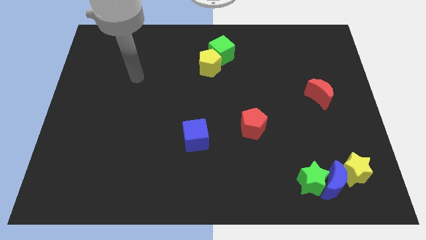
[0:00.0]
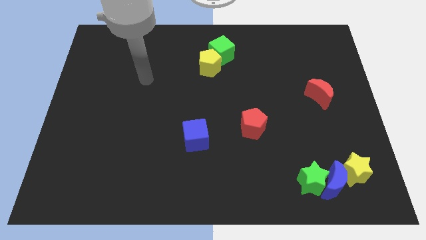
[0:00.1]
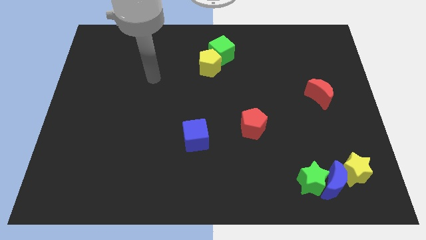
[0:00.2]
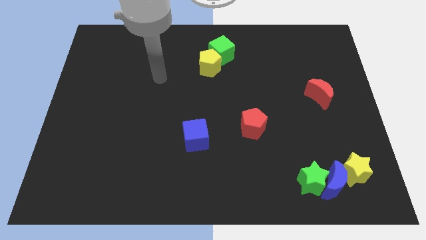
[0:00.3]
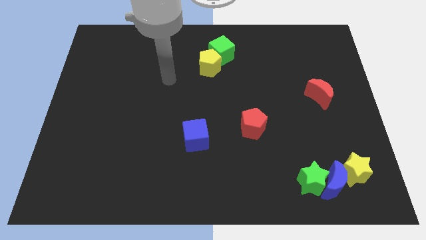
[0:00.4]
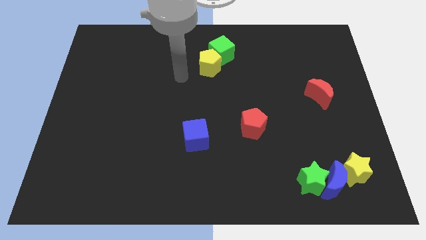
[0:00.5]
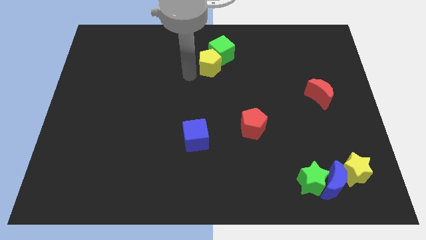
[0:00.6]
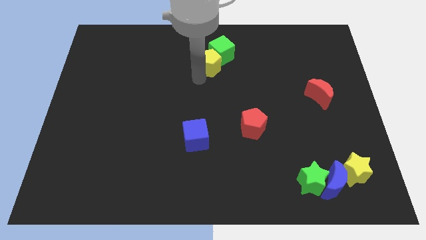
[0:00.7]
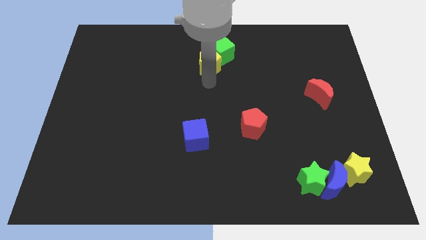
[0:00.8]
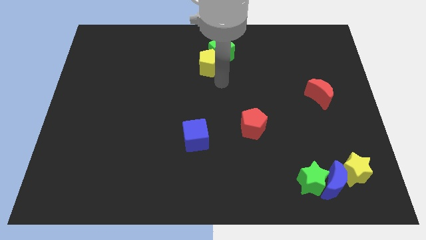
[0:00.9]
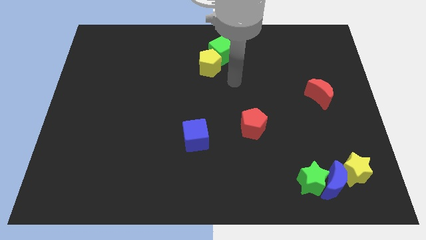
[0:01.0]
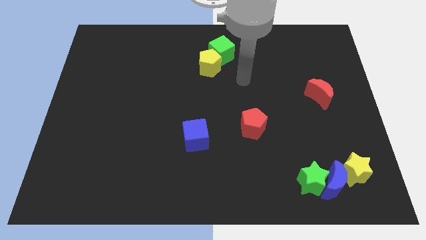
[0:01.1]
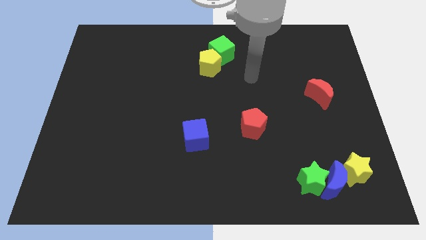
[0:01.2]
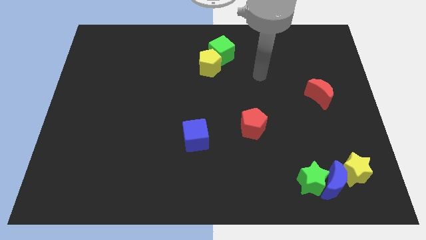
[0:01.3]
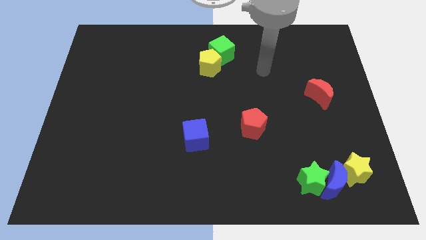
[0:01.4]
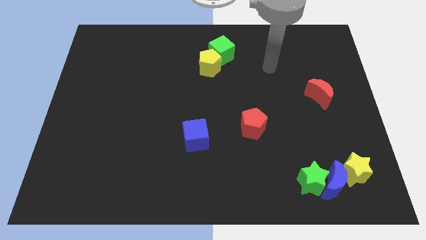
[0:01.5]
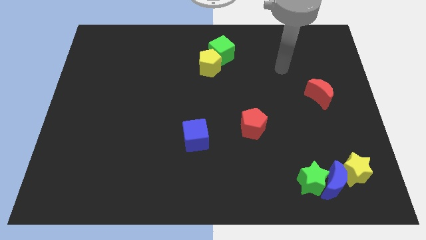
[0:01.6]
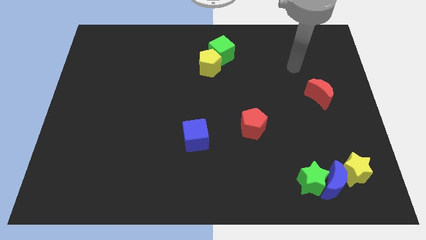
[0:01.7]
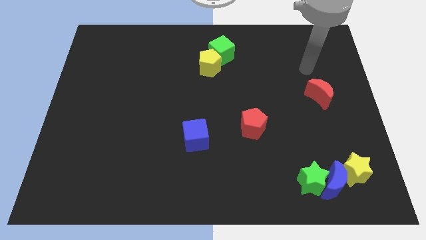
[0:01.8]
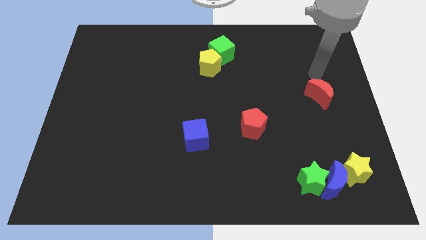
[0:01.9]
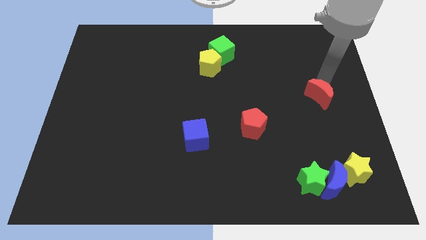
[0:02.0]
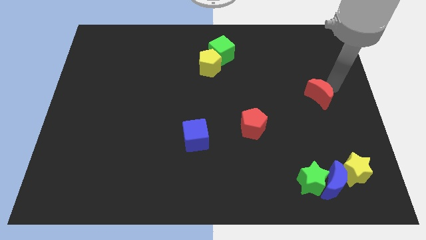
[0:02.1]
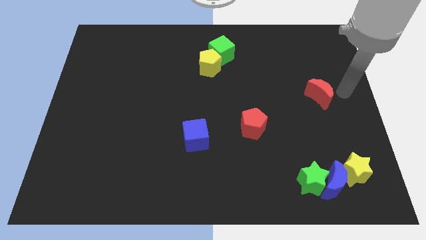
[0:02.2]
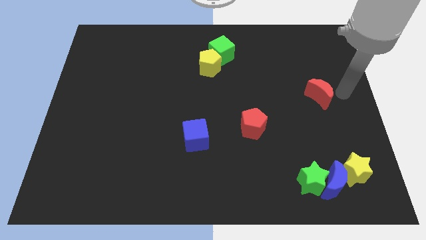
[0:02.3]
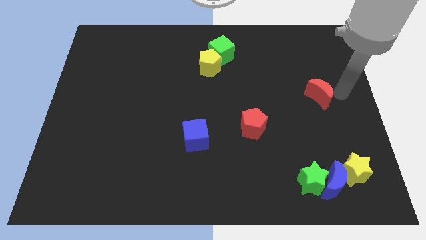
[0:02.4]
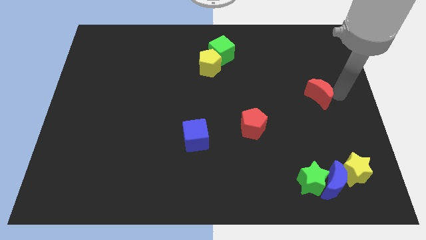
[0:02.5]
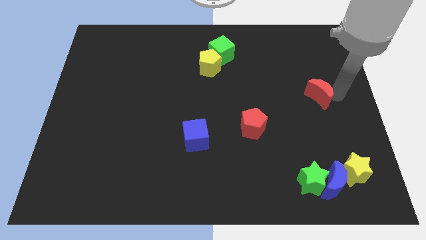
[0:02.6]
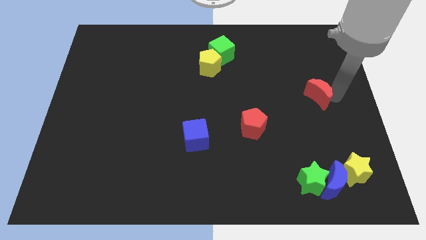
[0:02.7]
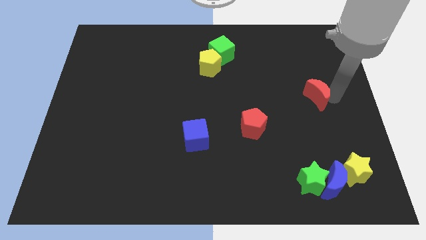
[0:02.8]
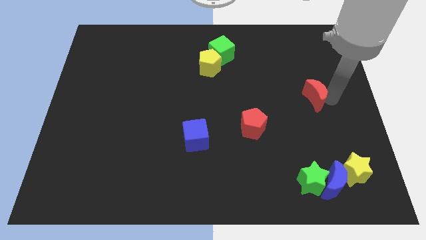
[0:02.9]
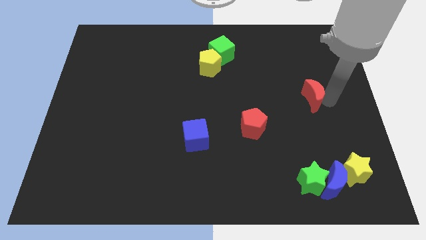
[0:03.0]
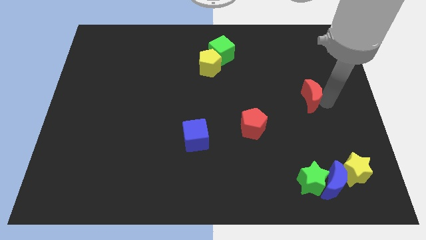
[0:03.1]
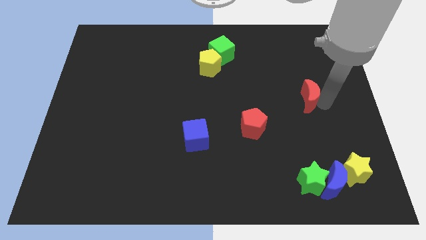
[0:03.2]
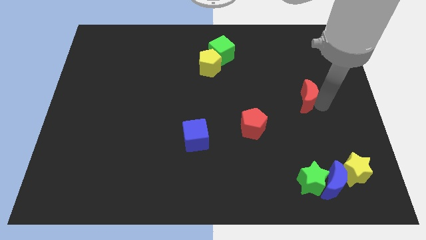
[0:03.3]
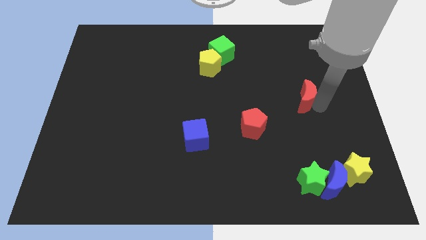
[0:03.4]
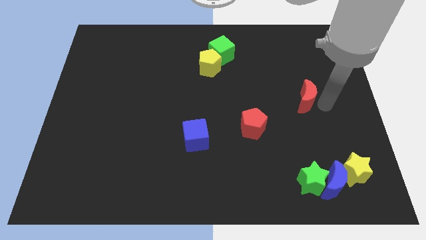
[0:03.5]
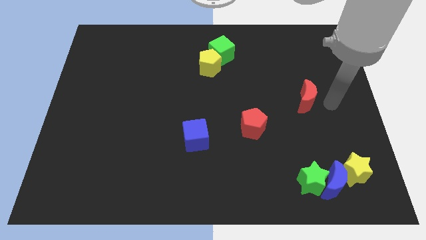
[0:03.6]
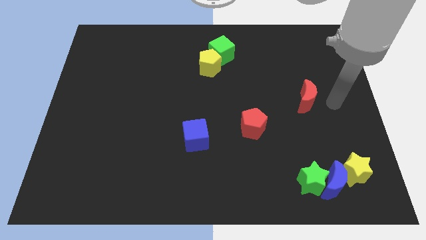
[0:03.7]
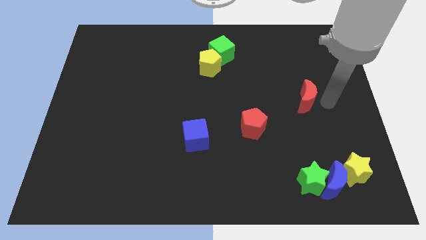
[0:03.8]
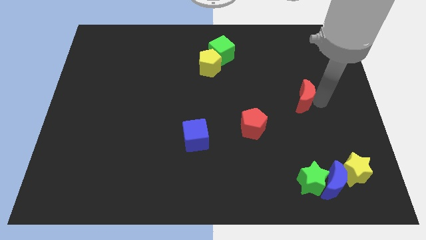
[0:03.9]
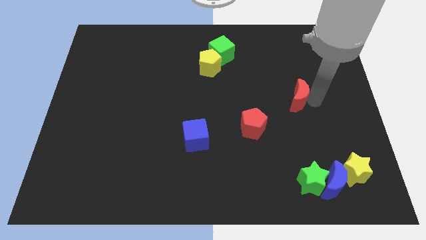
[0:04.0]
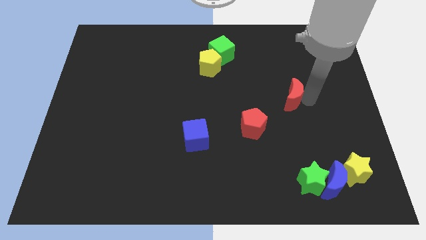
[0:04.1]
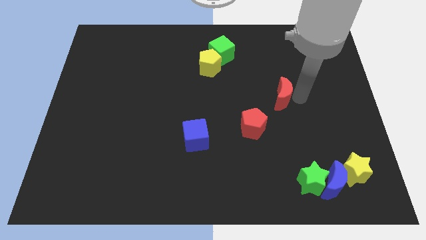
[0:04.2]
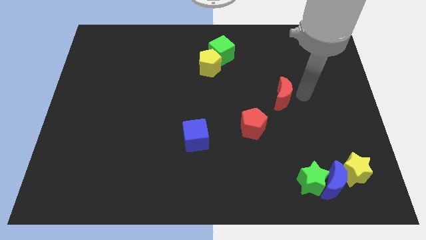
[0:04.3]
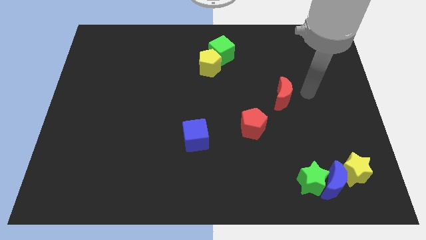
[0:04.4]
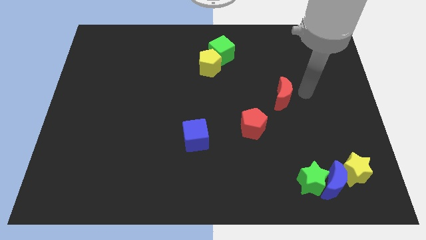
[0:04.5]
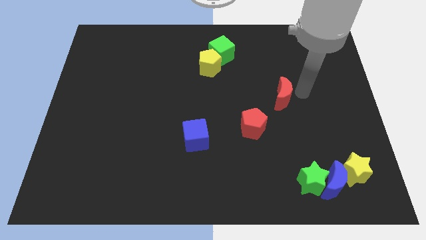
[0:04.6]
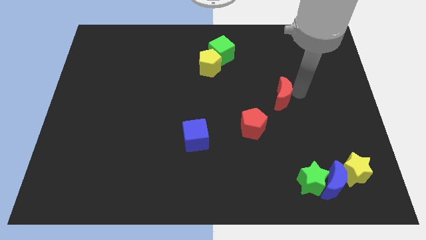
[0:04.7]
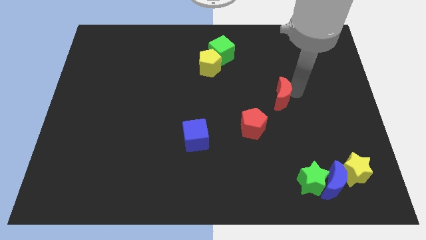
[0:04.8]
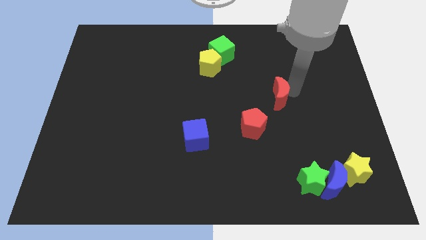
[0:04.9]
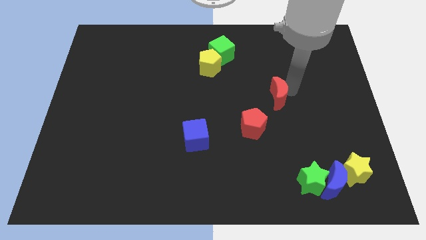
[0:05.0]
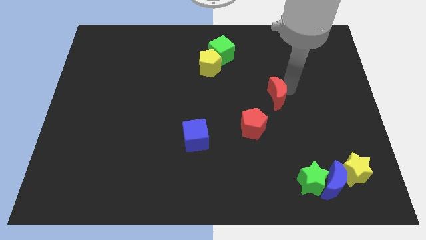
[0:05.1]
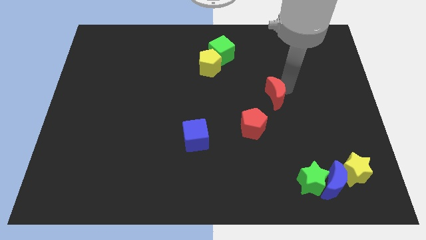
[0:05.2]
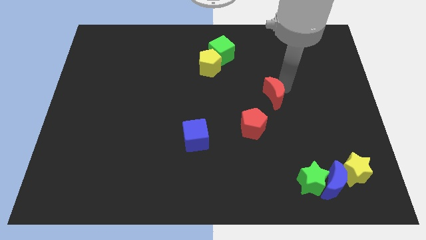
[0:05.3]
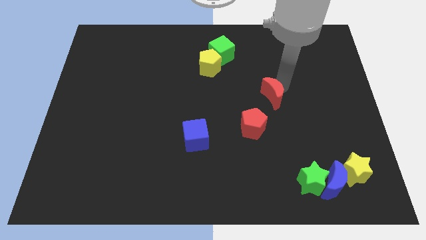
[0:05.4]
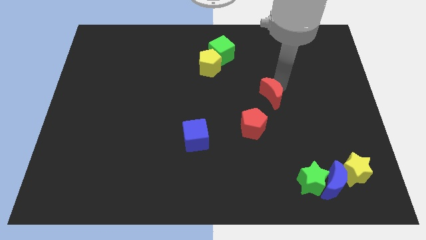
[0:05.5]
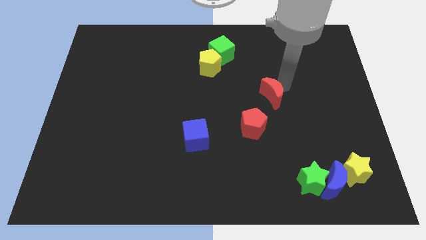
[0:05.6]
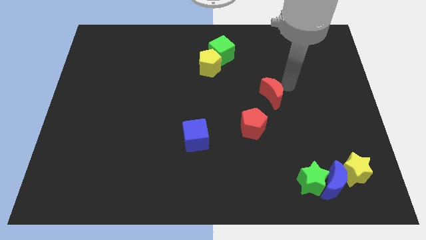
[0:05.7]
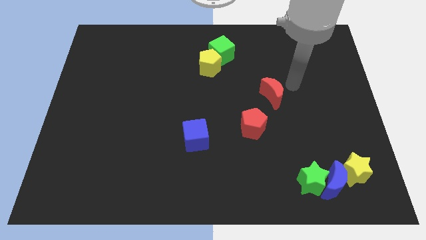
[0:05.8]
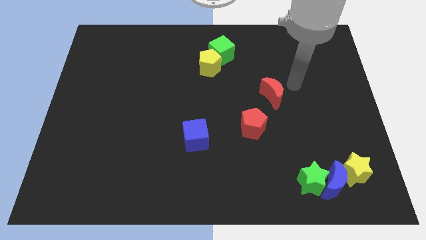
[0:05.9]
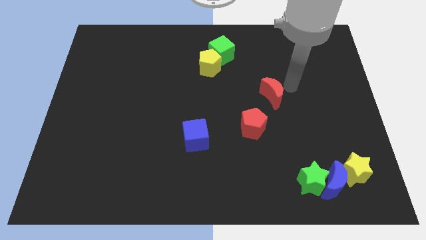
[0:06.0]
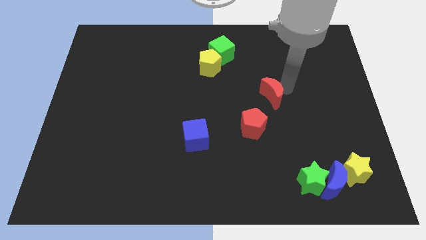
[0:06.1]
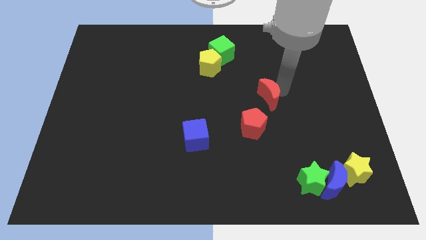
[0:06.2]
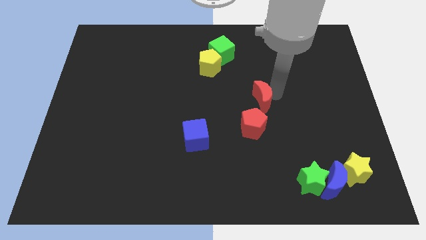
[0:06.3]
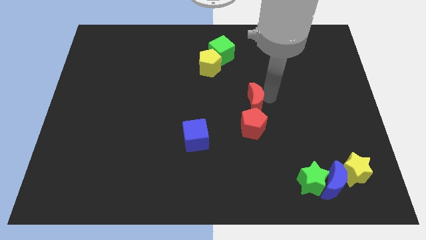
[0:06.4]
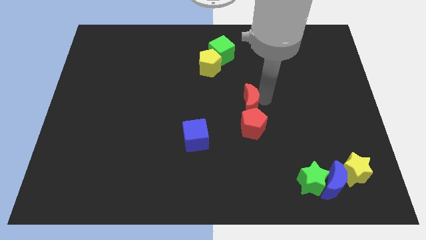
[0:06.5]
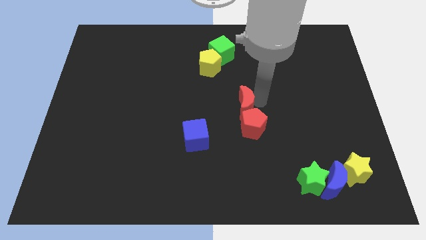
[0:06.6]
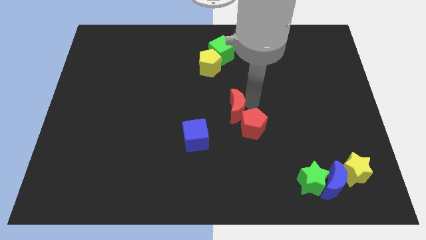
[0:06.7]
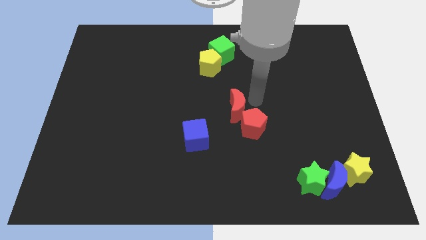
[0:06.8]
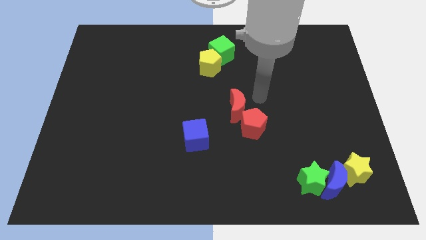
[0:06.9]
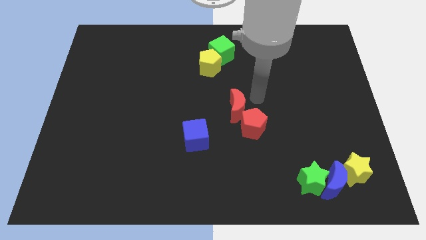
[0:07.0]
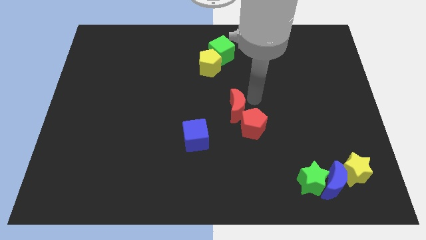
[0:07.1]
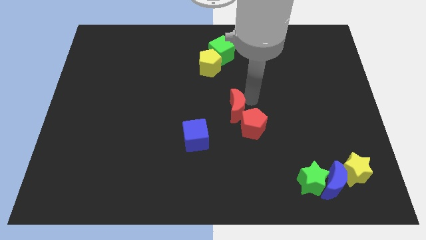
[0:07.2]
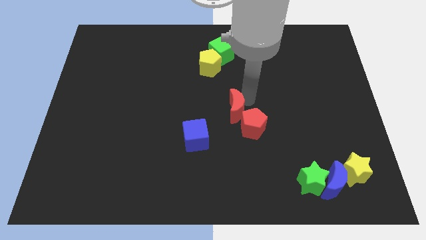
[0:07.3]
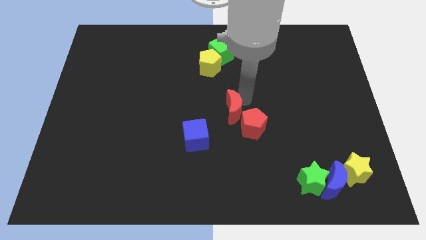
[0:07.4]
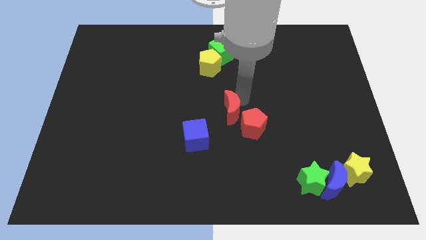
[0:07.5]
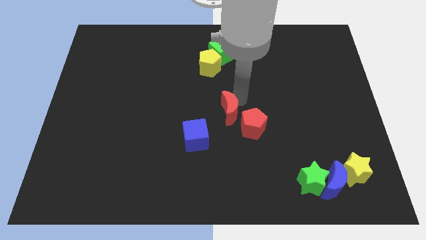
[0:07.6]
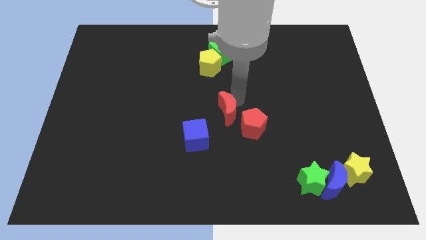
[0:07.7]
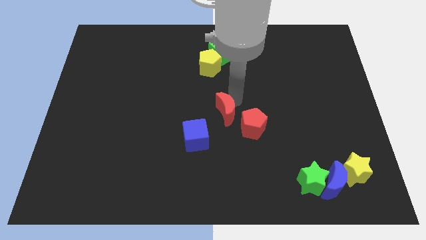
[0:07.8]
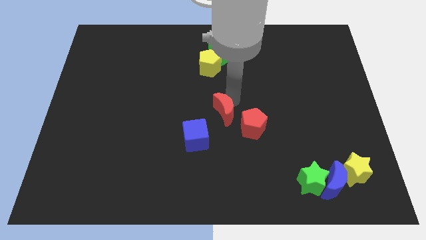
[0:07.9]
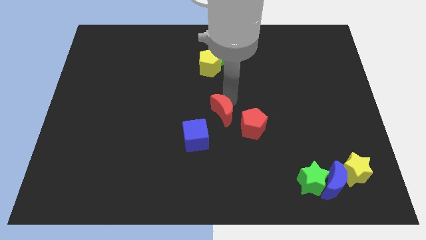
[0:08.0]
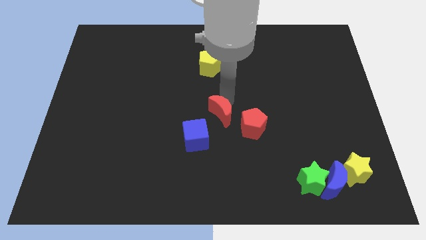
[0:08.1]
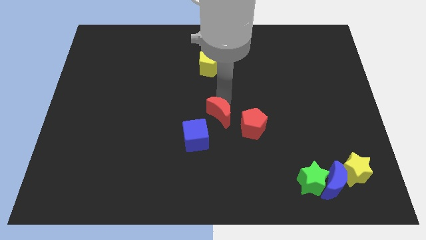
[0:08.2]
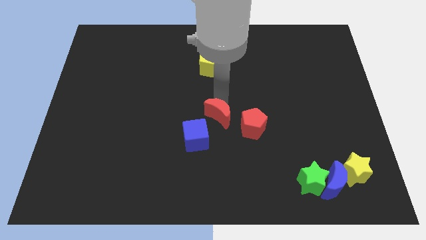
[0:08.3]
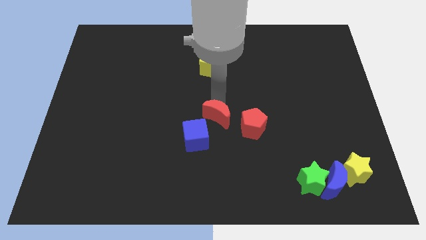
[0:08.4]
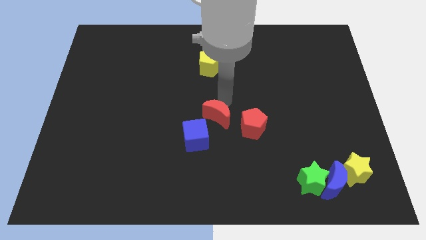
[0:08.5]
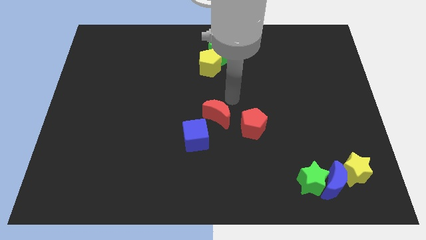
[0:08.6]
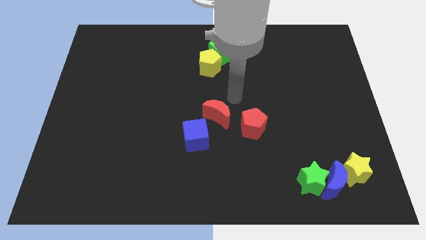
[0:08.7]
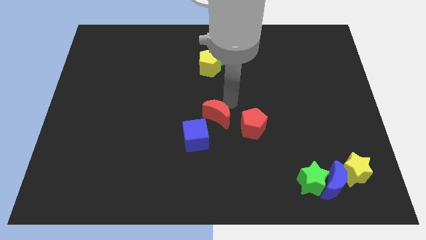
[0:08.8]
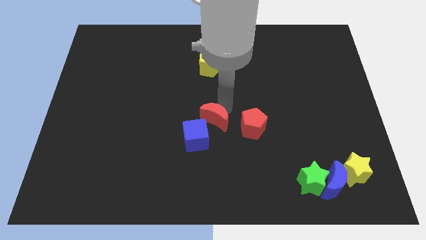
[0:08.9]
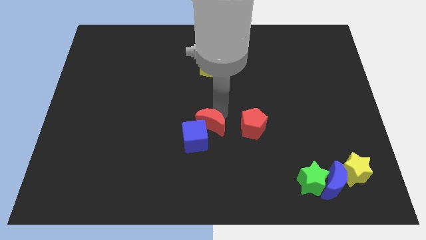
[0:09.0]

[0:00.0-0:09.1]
put the red moon close to the blue cube
